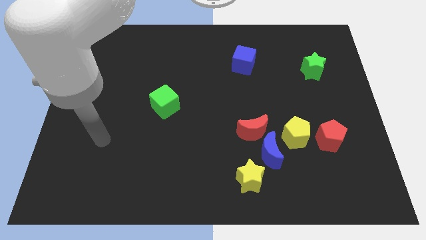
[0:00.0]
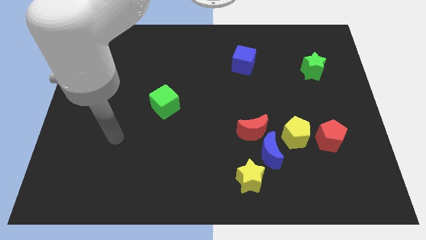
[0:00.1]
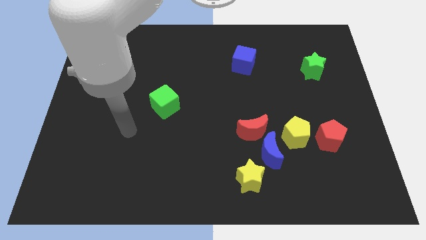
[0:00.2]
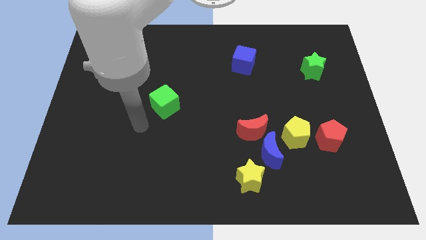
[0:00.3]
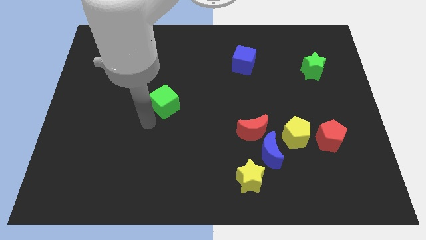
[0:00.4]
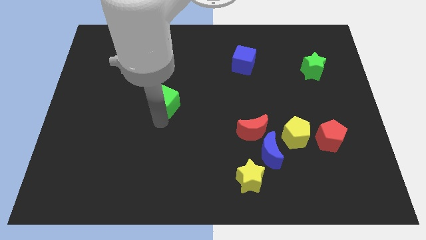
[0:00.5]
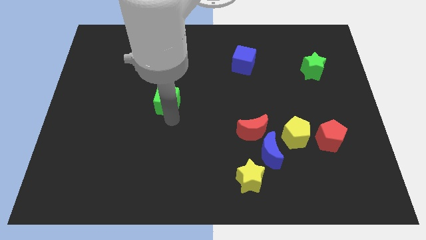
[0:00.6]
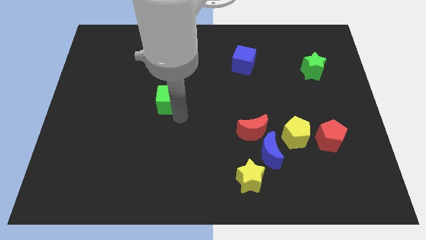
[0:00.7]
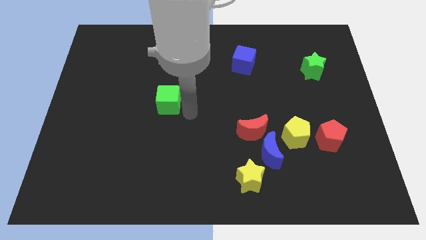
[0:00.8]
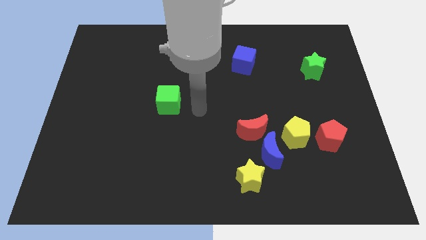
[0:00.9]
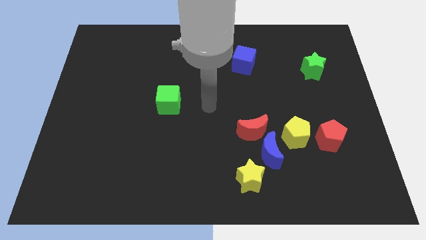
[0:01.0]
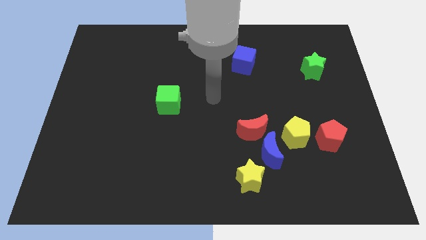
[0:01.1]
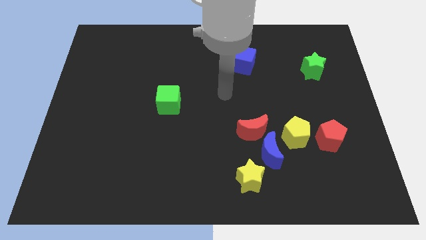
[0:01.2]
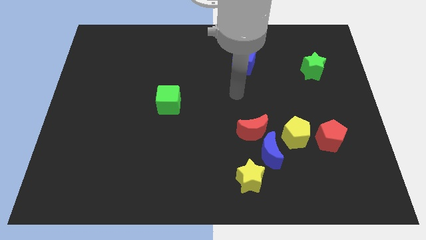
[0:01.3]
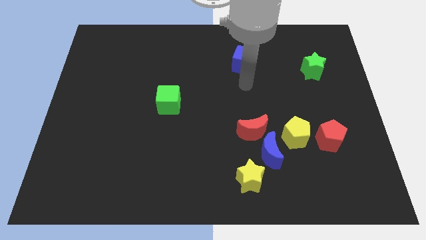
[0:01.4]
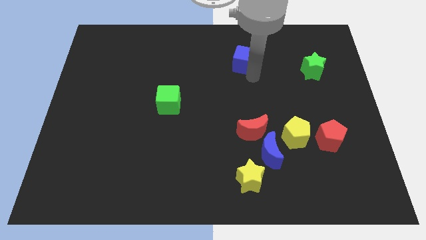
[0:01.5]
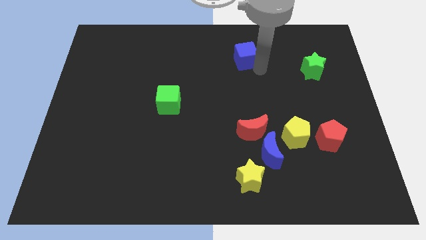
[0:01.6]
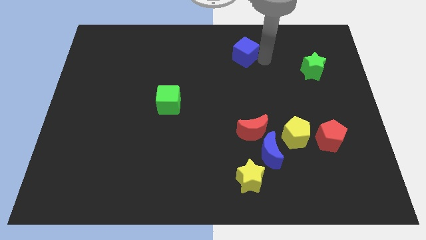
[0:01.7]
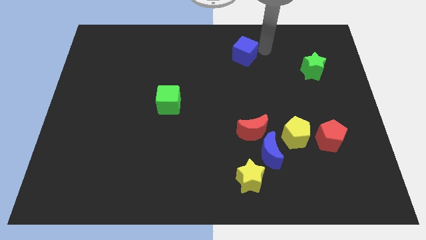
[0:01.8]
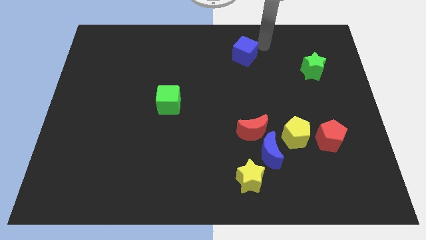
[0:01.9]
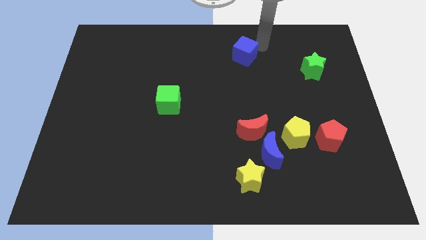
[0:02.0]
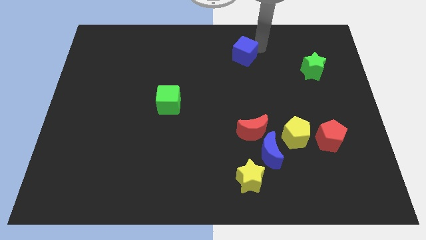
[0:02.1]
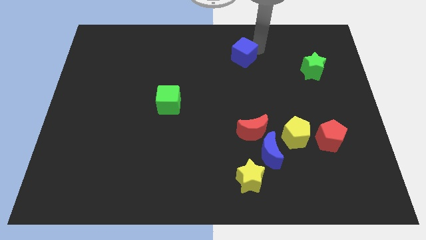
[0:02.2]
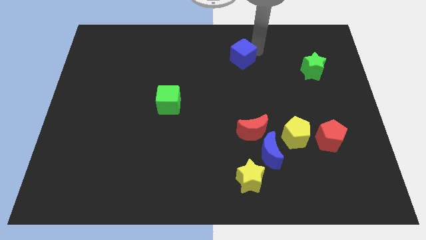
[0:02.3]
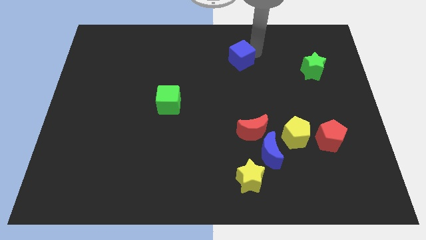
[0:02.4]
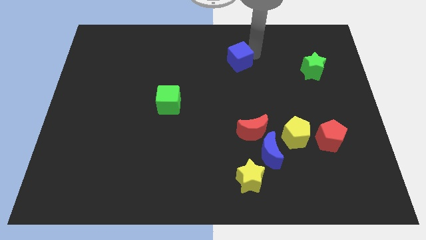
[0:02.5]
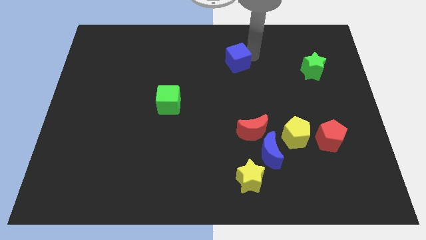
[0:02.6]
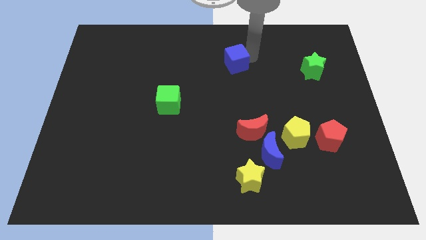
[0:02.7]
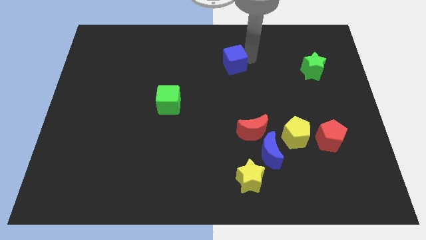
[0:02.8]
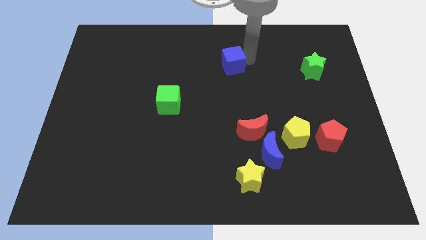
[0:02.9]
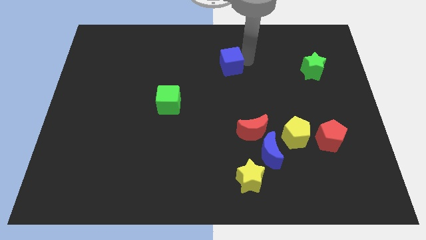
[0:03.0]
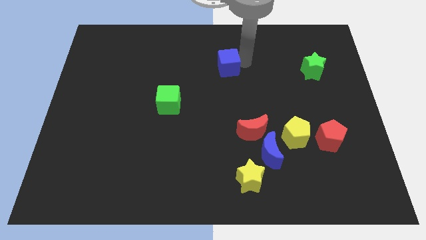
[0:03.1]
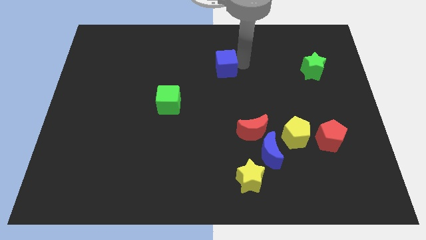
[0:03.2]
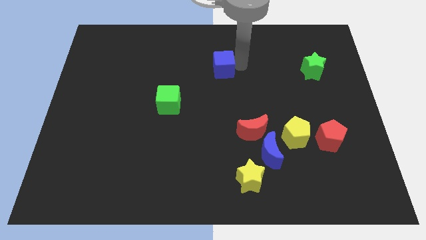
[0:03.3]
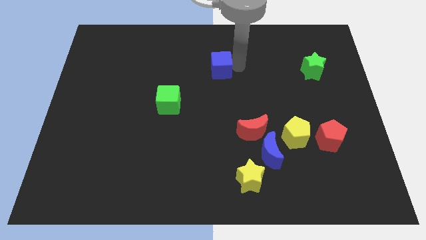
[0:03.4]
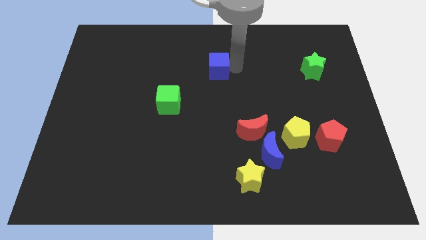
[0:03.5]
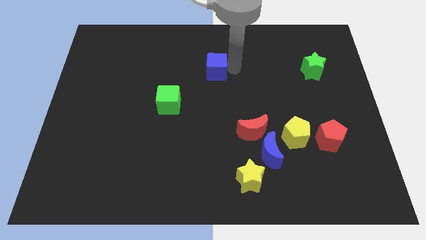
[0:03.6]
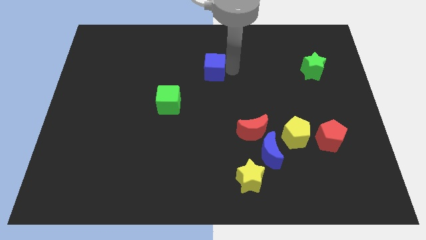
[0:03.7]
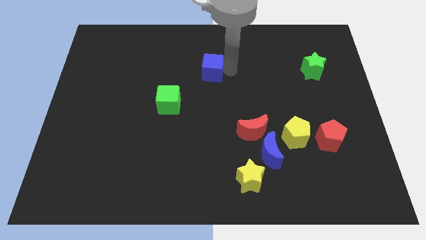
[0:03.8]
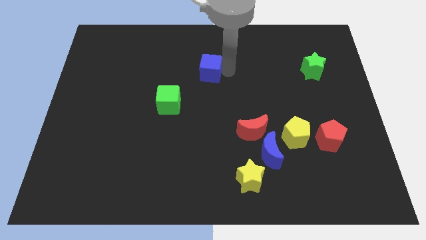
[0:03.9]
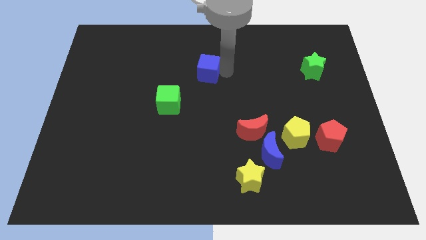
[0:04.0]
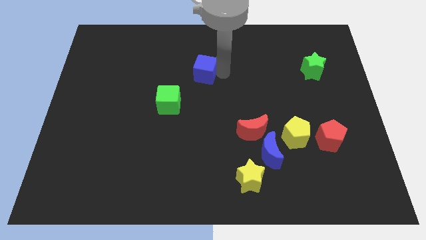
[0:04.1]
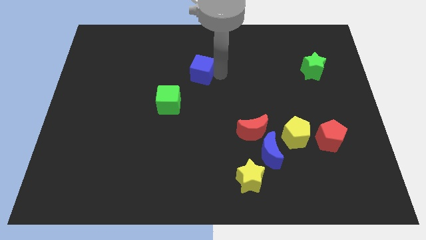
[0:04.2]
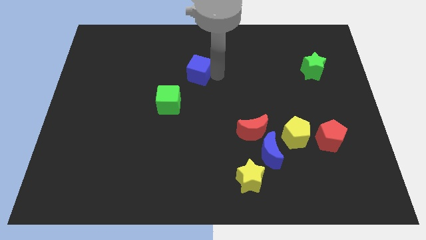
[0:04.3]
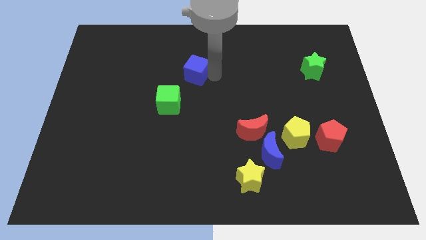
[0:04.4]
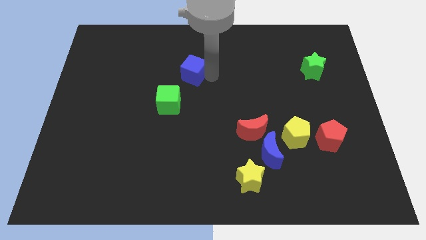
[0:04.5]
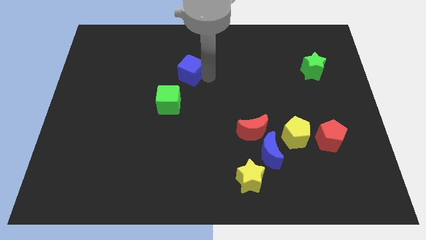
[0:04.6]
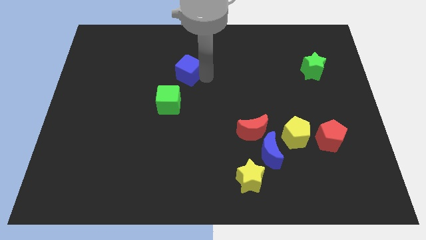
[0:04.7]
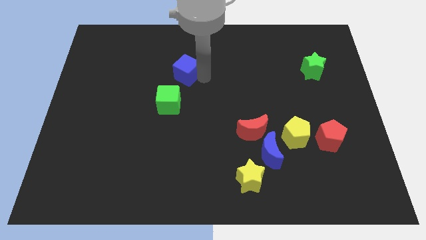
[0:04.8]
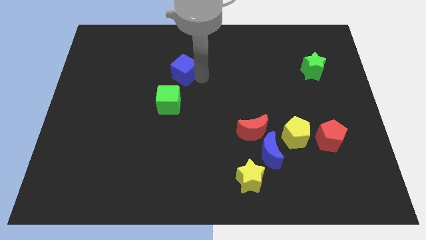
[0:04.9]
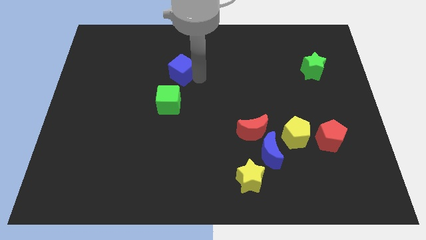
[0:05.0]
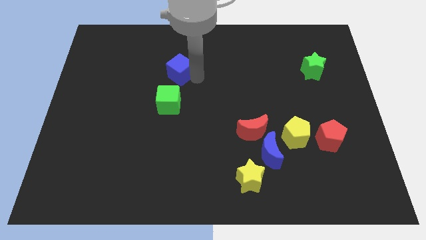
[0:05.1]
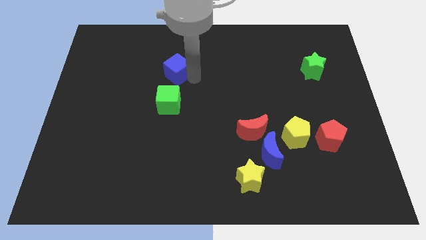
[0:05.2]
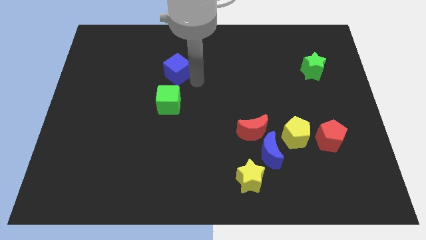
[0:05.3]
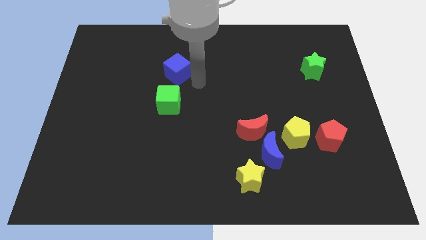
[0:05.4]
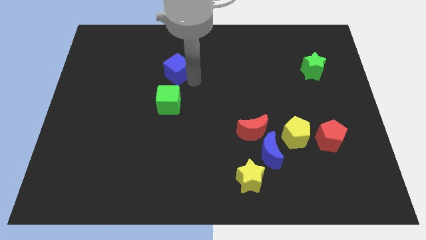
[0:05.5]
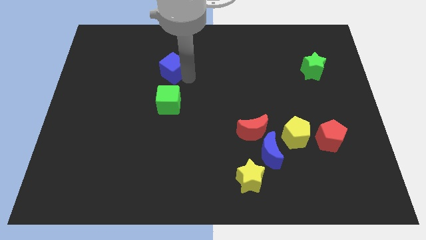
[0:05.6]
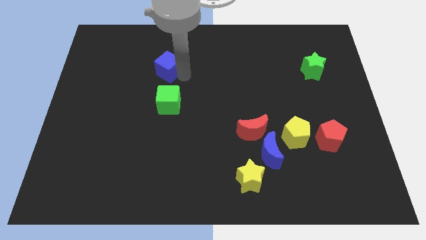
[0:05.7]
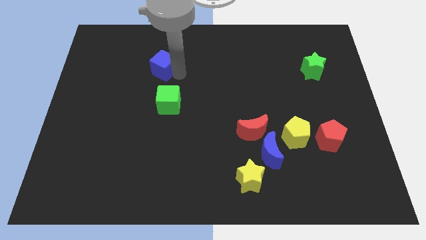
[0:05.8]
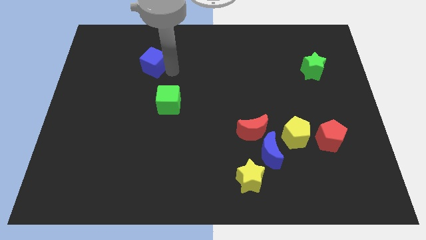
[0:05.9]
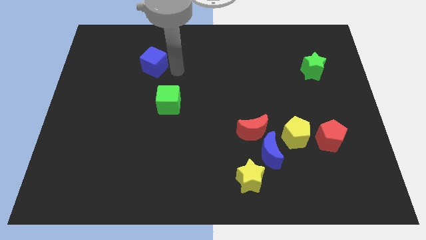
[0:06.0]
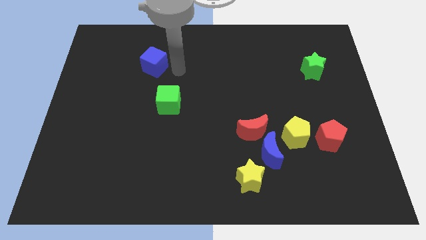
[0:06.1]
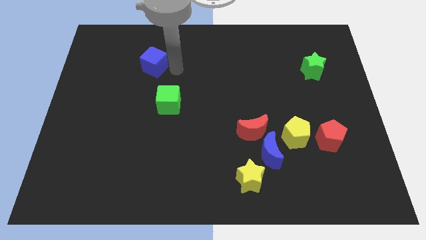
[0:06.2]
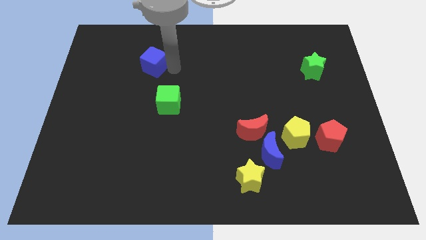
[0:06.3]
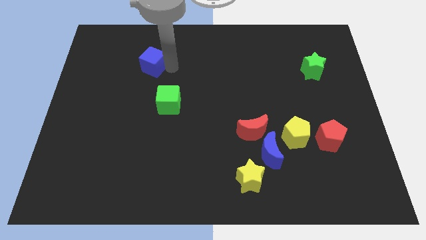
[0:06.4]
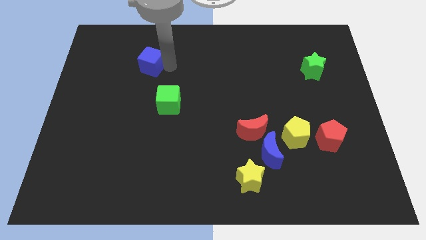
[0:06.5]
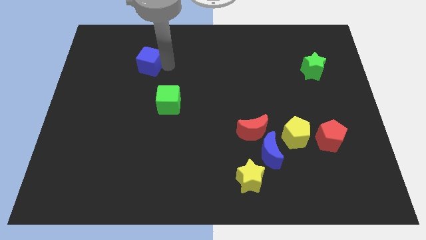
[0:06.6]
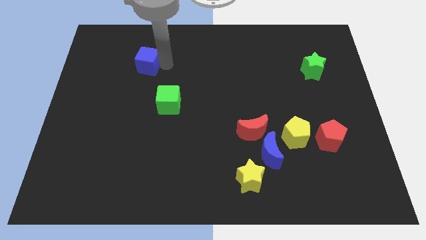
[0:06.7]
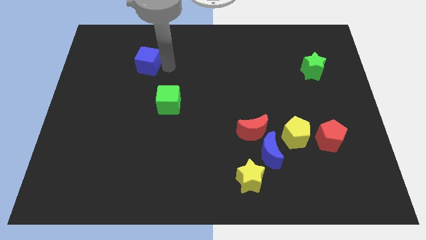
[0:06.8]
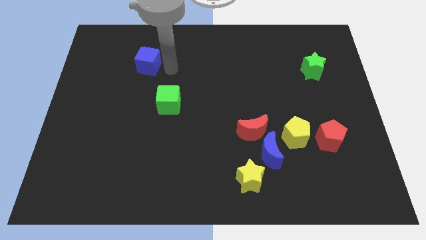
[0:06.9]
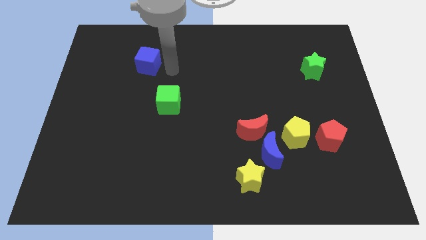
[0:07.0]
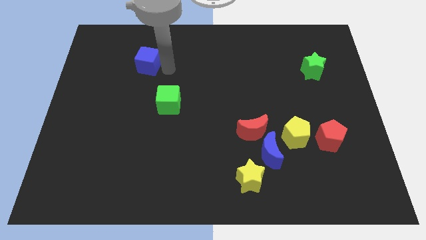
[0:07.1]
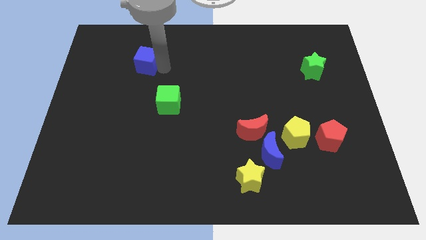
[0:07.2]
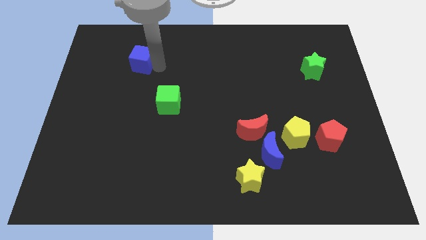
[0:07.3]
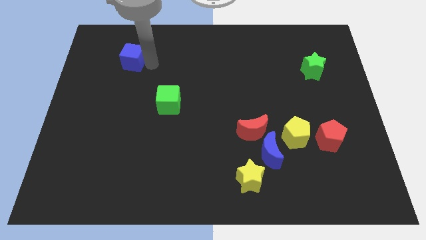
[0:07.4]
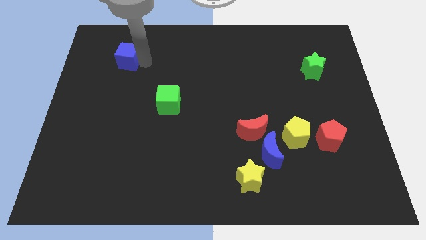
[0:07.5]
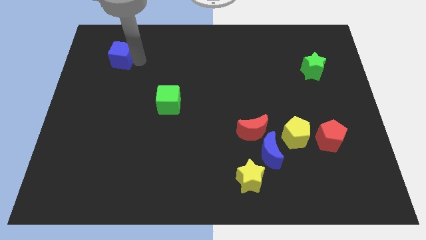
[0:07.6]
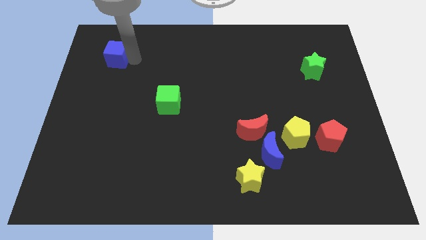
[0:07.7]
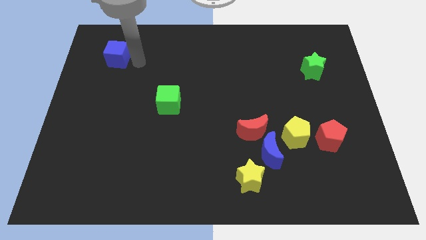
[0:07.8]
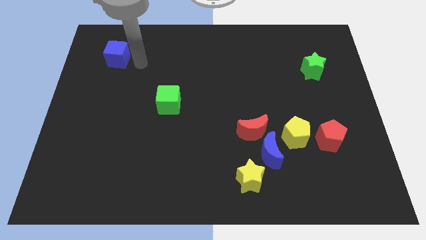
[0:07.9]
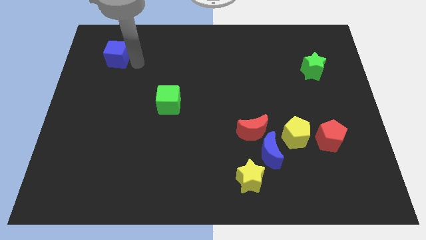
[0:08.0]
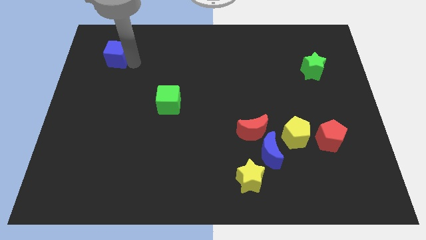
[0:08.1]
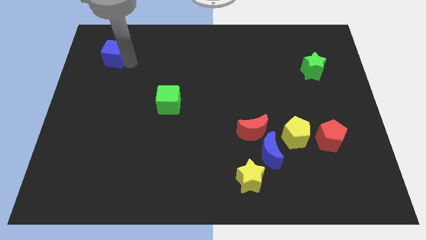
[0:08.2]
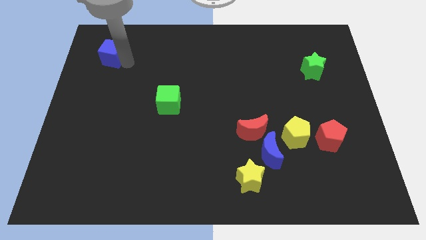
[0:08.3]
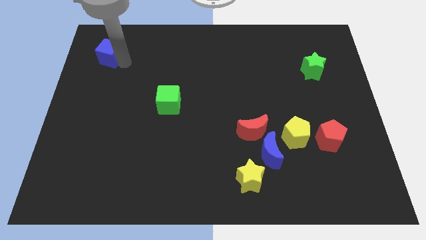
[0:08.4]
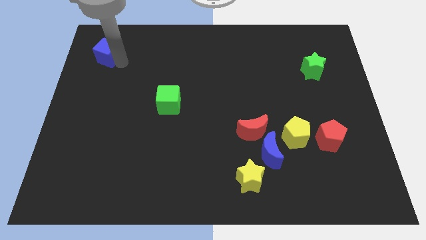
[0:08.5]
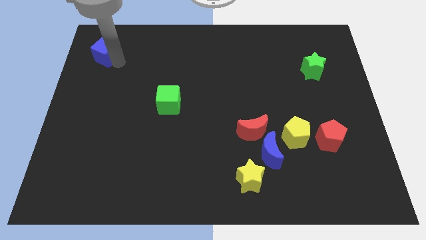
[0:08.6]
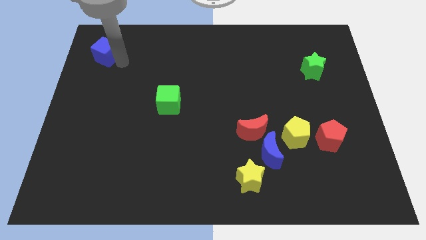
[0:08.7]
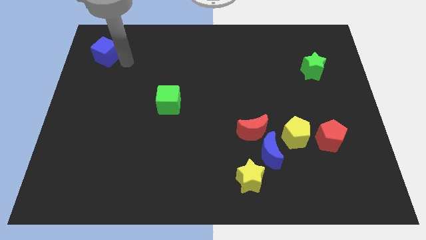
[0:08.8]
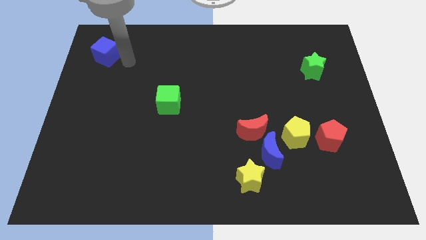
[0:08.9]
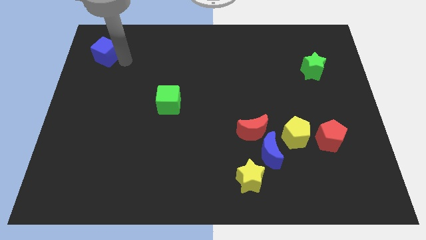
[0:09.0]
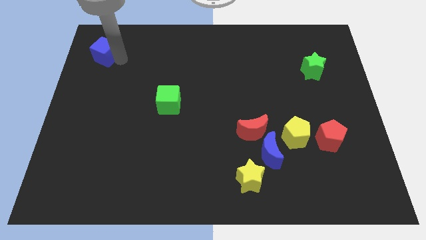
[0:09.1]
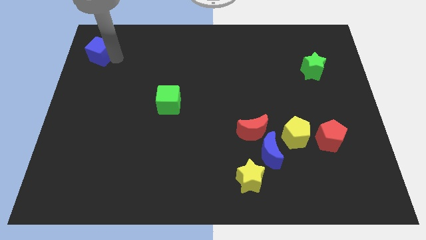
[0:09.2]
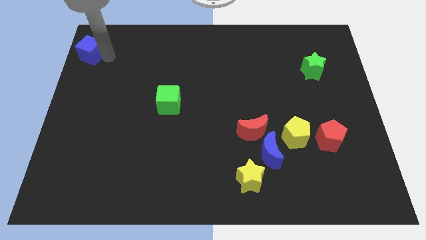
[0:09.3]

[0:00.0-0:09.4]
move the blue cube to the top left corner
